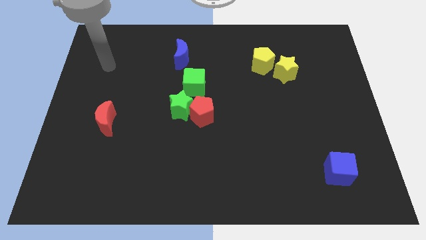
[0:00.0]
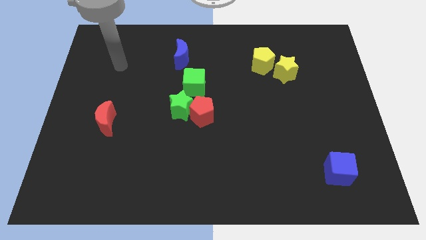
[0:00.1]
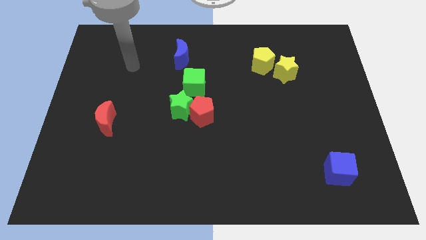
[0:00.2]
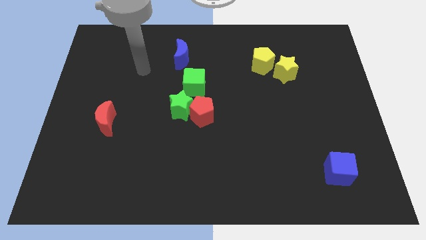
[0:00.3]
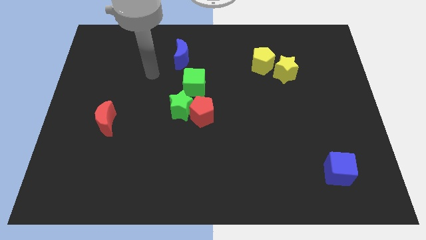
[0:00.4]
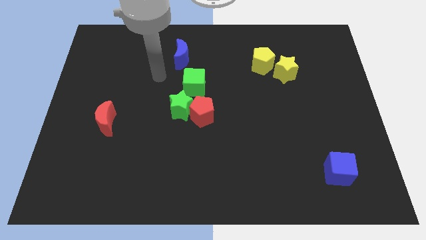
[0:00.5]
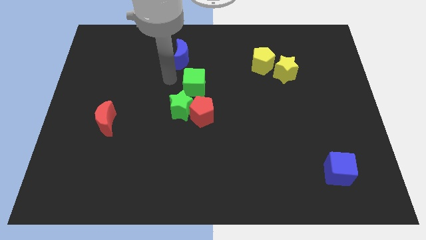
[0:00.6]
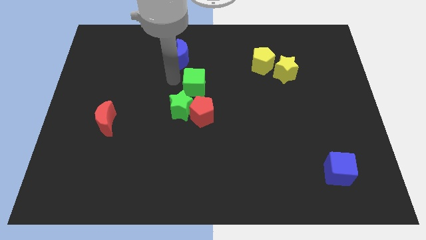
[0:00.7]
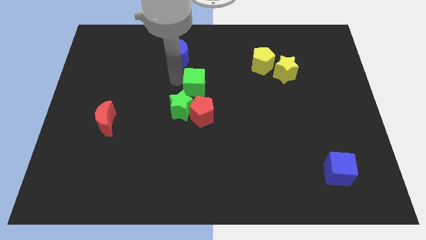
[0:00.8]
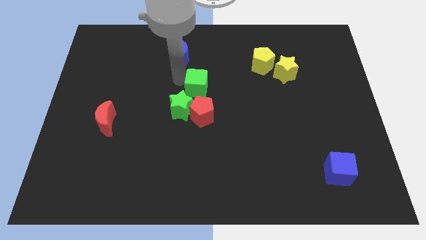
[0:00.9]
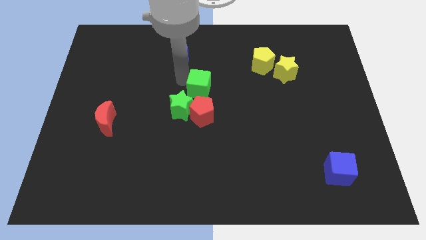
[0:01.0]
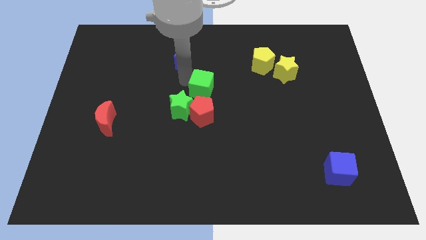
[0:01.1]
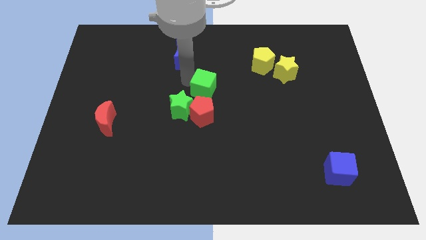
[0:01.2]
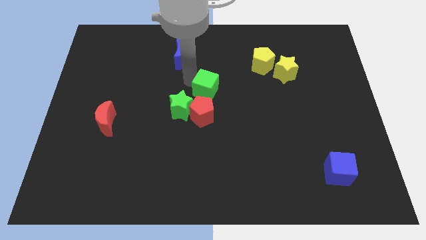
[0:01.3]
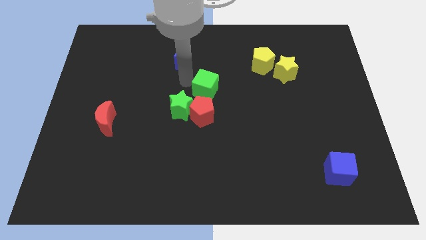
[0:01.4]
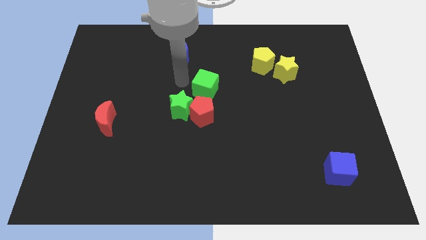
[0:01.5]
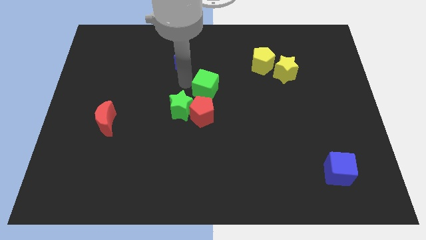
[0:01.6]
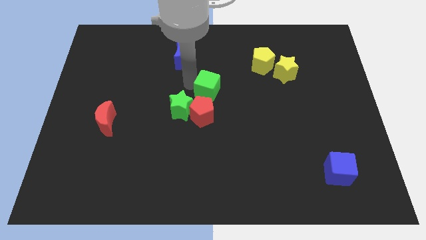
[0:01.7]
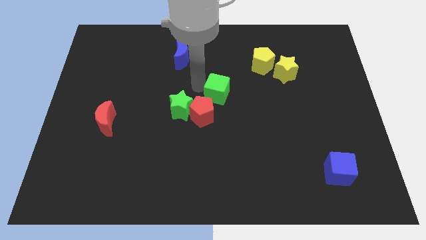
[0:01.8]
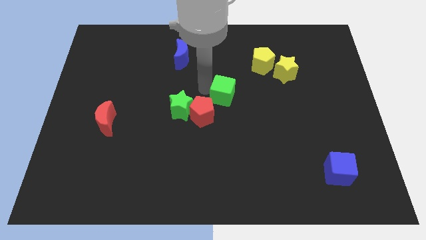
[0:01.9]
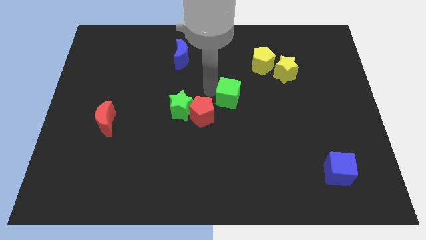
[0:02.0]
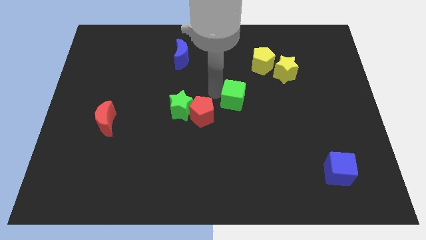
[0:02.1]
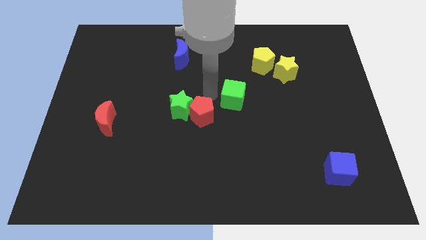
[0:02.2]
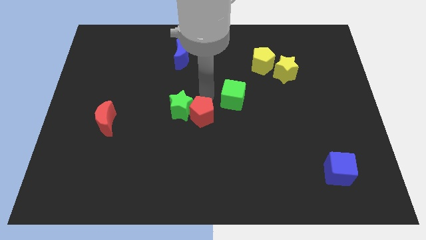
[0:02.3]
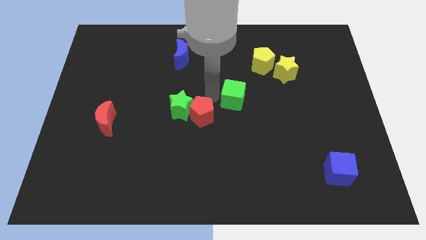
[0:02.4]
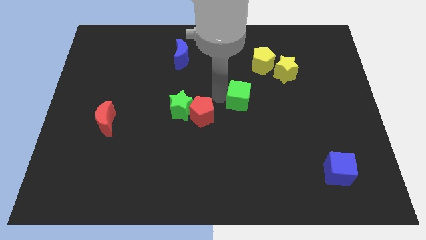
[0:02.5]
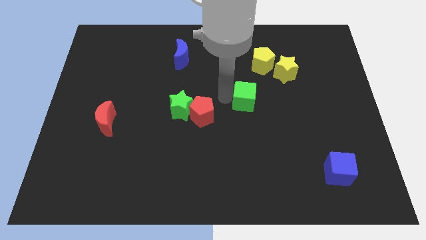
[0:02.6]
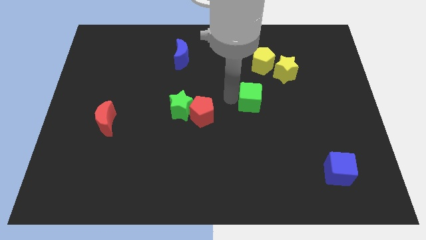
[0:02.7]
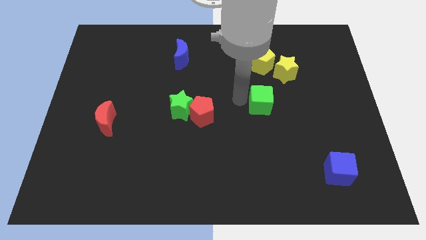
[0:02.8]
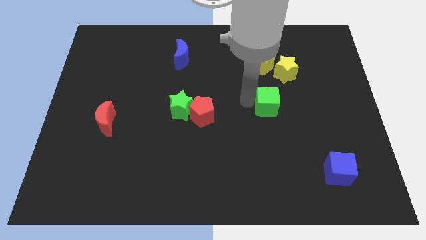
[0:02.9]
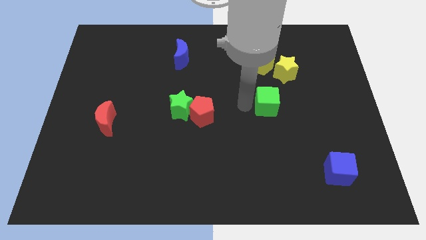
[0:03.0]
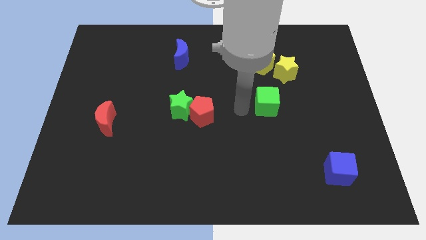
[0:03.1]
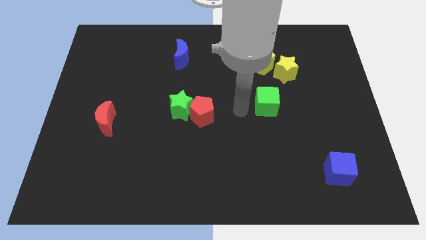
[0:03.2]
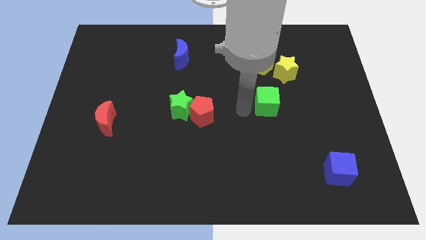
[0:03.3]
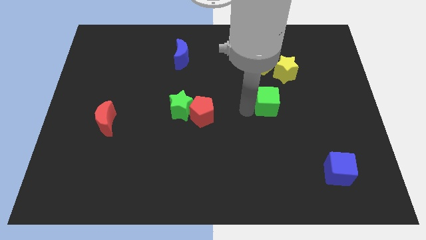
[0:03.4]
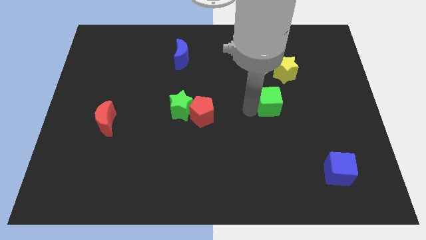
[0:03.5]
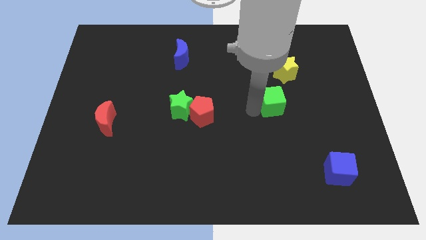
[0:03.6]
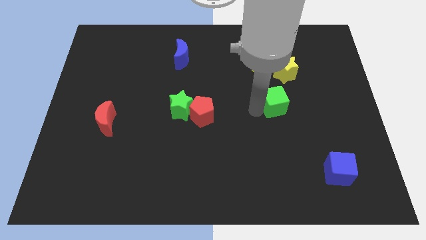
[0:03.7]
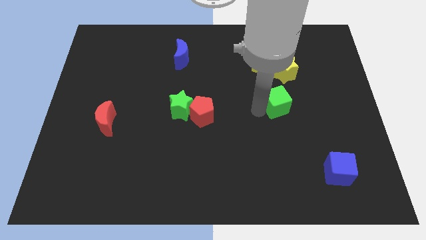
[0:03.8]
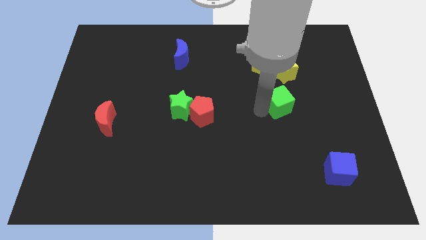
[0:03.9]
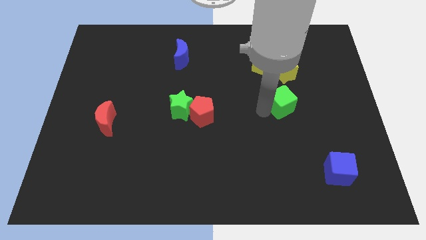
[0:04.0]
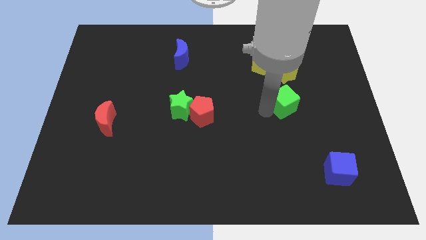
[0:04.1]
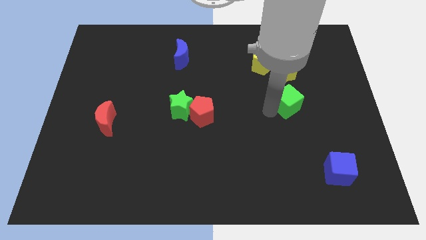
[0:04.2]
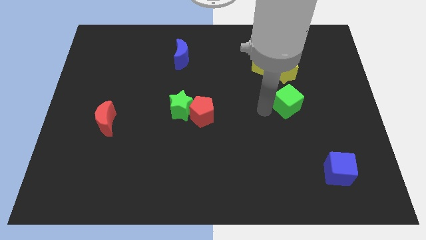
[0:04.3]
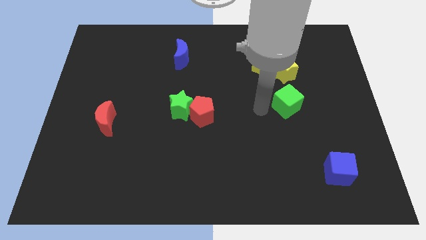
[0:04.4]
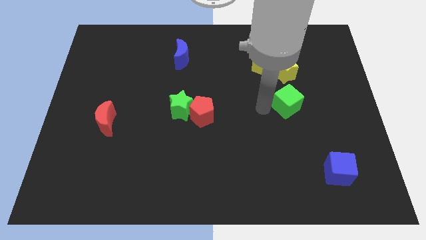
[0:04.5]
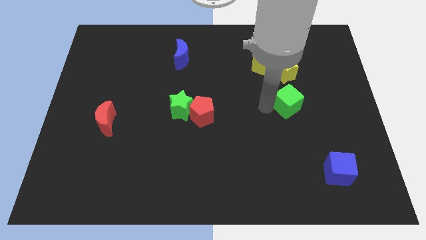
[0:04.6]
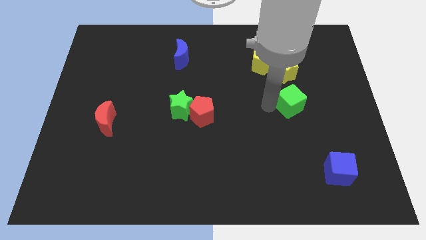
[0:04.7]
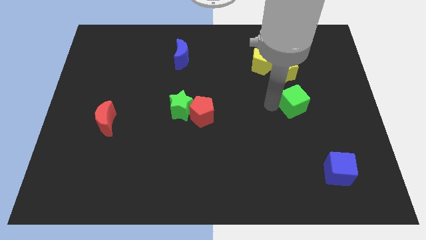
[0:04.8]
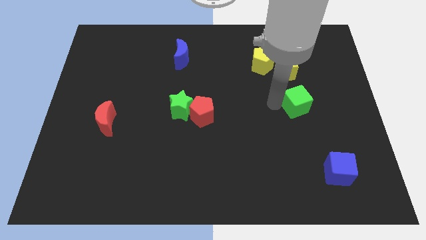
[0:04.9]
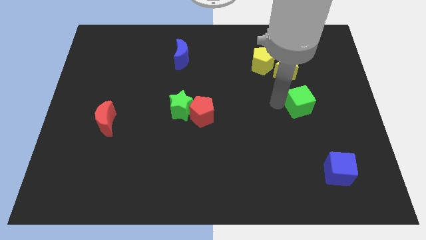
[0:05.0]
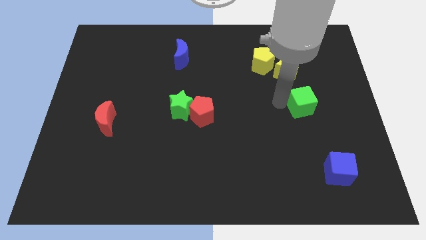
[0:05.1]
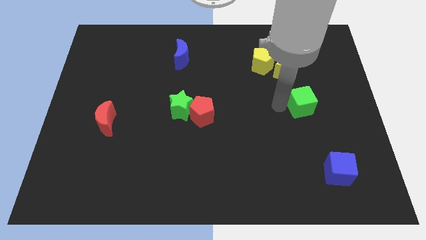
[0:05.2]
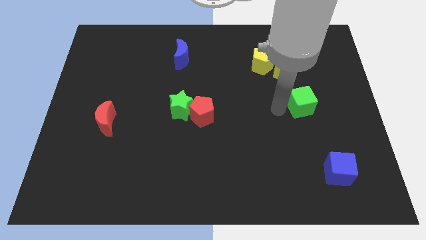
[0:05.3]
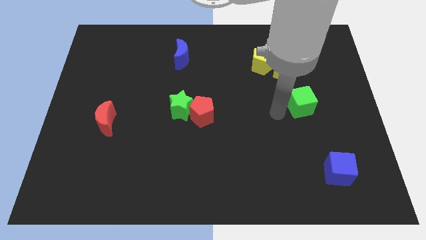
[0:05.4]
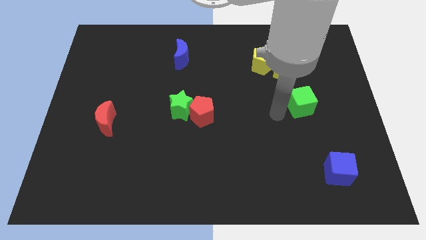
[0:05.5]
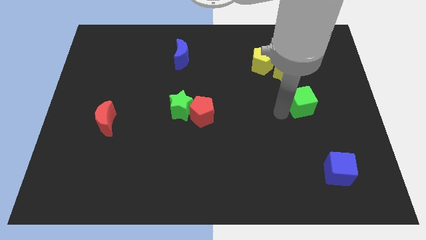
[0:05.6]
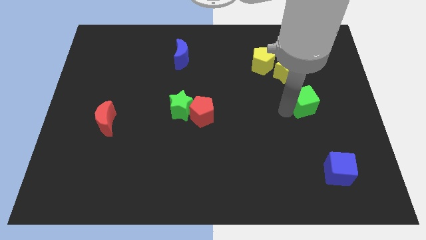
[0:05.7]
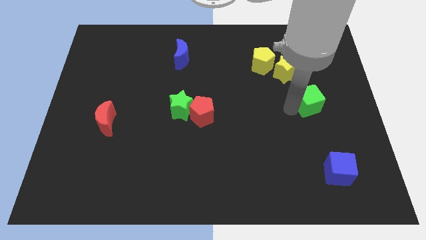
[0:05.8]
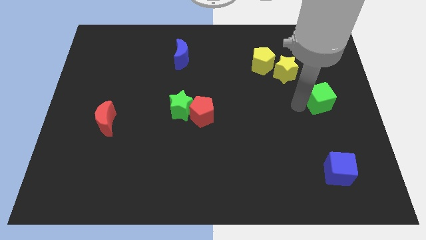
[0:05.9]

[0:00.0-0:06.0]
push the green cube to the center right

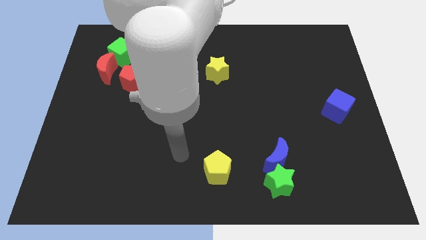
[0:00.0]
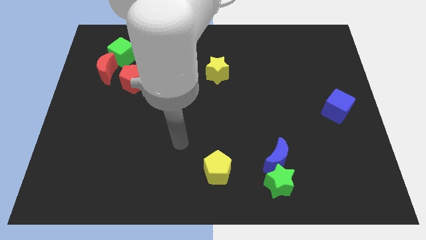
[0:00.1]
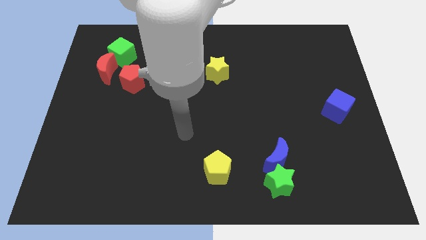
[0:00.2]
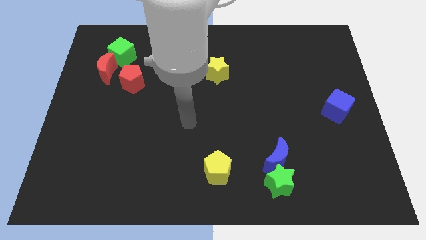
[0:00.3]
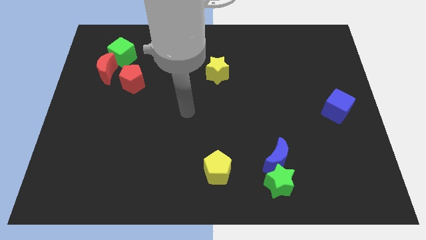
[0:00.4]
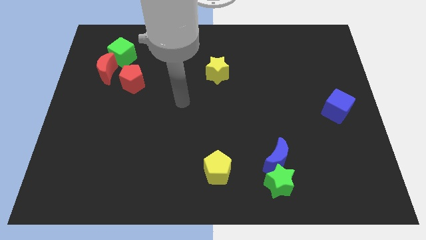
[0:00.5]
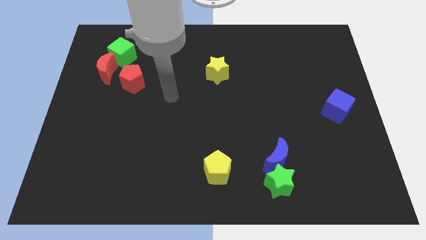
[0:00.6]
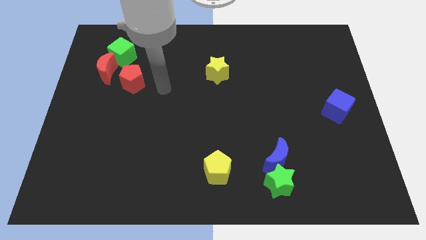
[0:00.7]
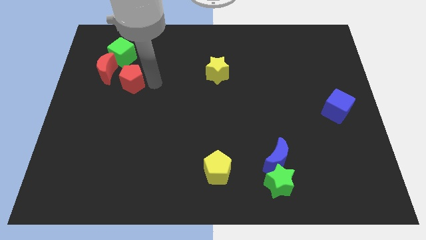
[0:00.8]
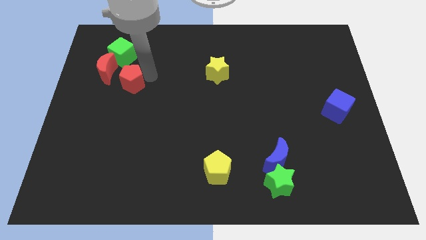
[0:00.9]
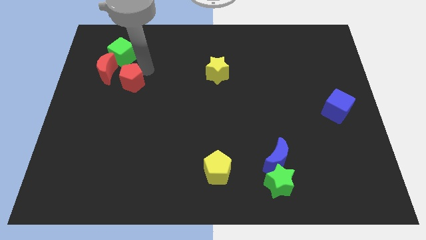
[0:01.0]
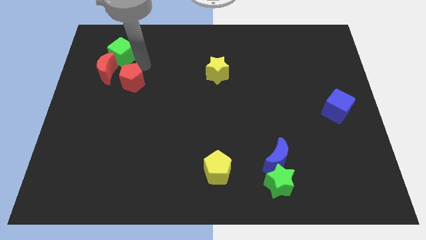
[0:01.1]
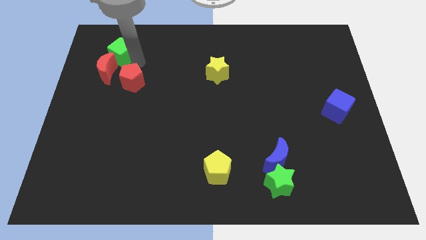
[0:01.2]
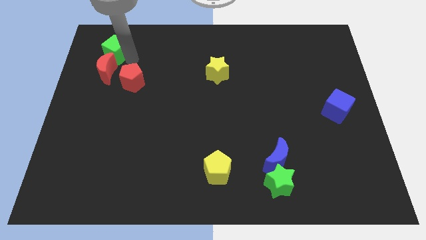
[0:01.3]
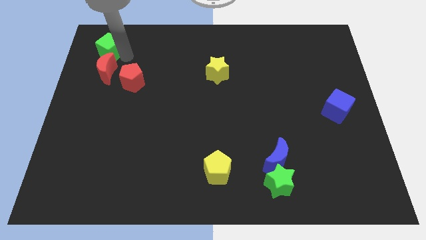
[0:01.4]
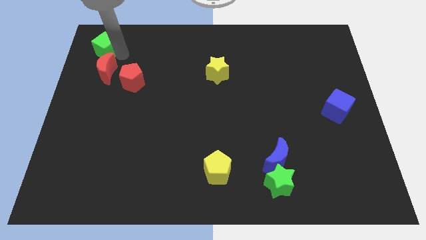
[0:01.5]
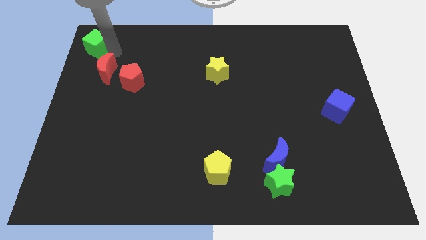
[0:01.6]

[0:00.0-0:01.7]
slide the green cube to the top left of the board
